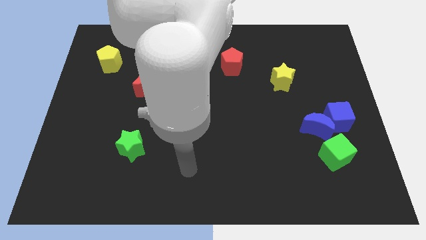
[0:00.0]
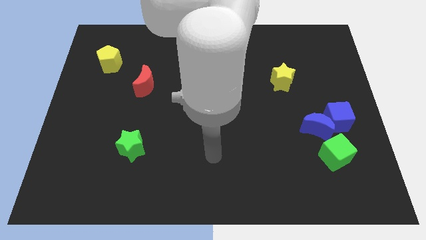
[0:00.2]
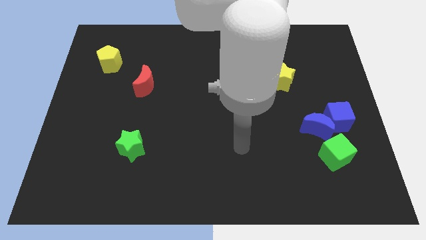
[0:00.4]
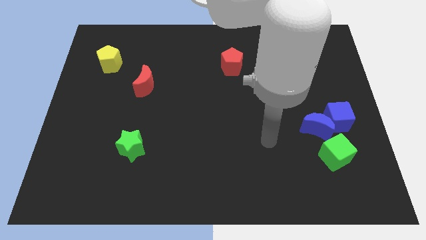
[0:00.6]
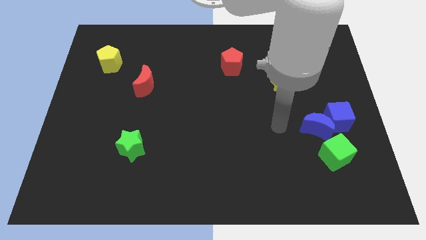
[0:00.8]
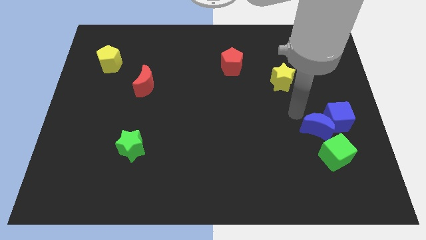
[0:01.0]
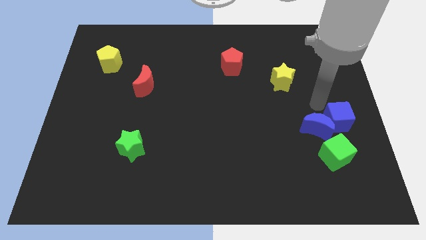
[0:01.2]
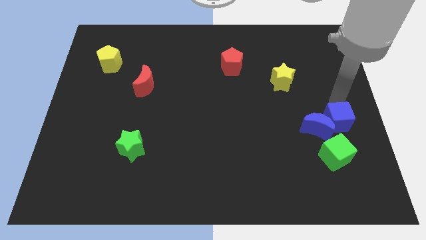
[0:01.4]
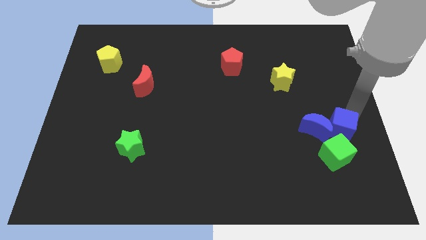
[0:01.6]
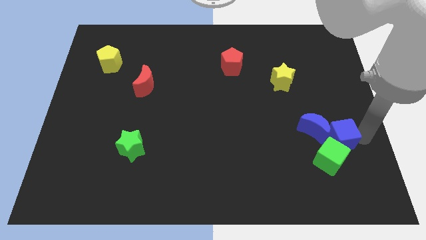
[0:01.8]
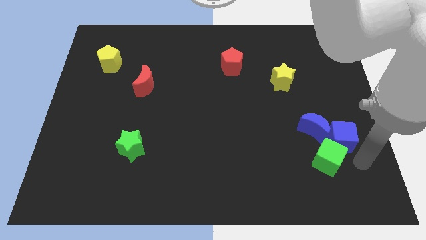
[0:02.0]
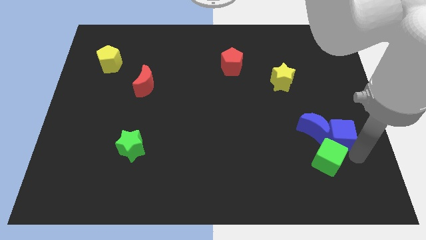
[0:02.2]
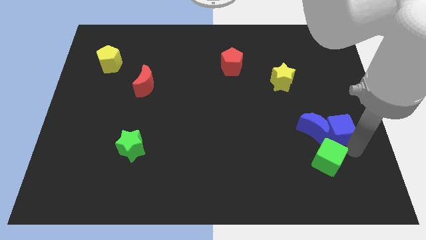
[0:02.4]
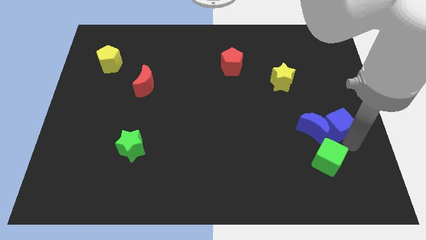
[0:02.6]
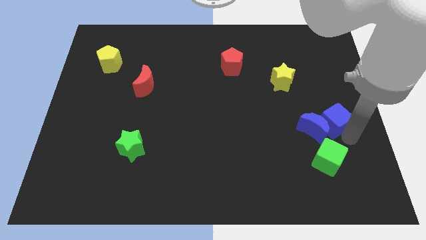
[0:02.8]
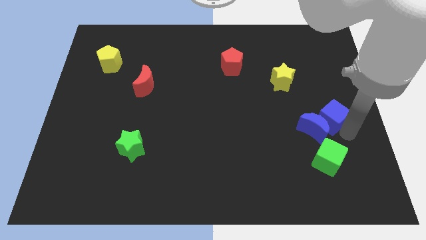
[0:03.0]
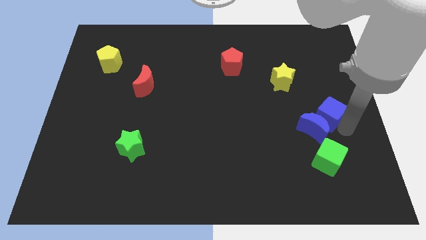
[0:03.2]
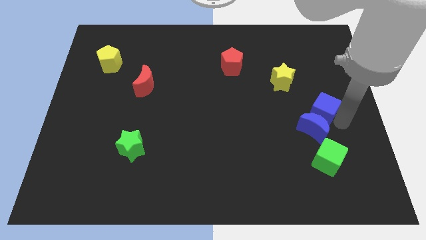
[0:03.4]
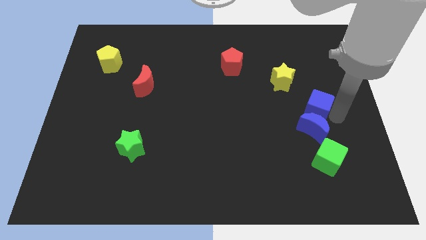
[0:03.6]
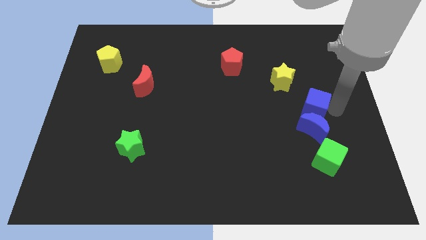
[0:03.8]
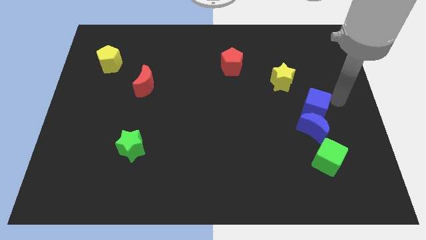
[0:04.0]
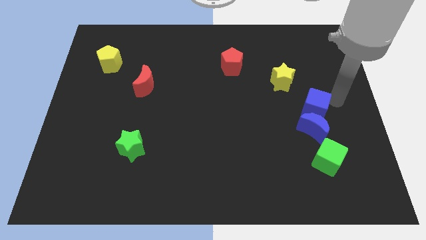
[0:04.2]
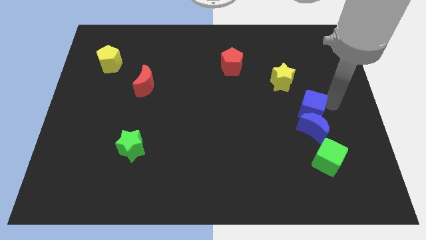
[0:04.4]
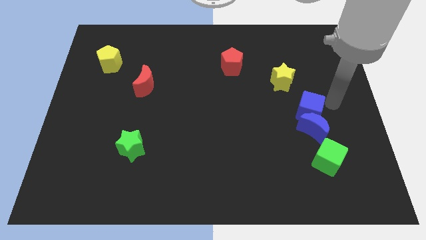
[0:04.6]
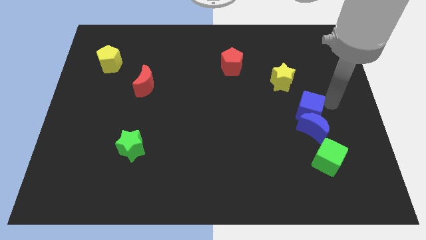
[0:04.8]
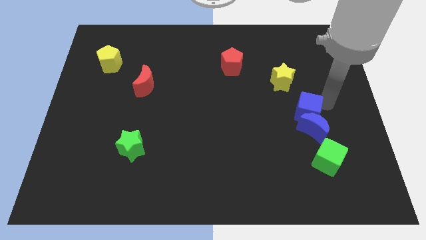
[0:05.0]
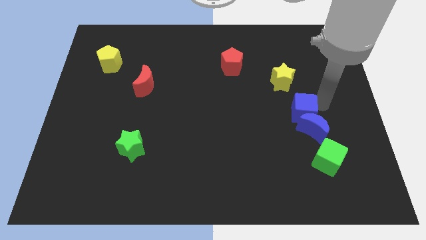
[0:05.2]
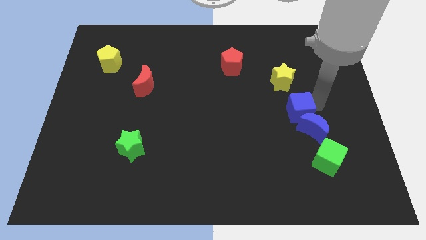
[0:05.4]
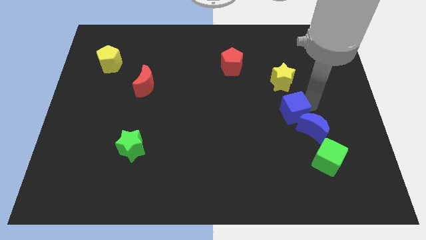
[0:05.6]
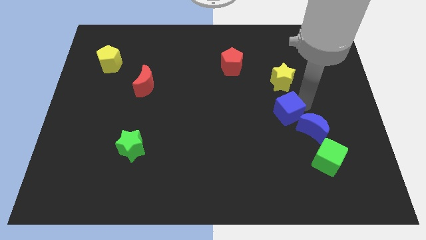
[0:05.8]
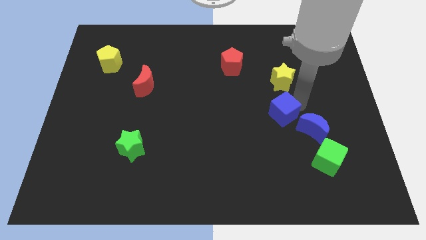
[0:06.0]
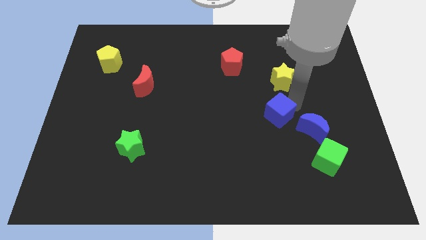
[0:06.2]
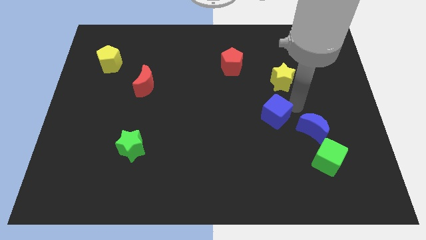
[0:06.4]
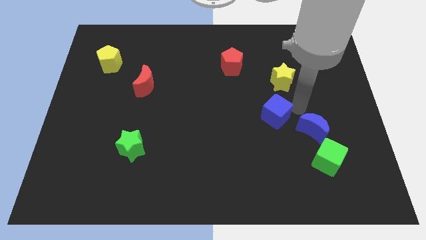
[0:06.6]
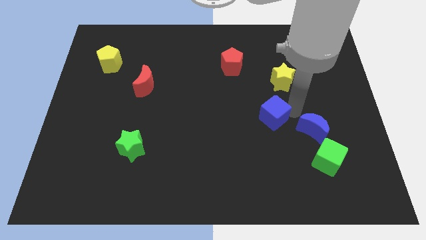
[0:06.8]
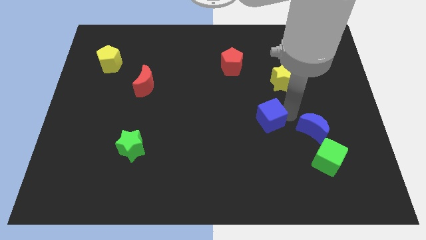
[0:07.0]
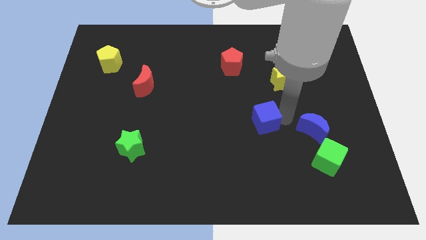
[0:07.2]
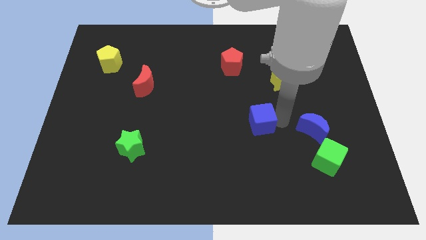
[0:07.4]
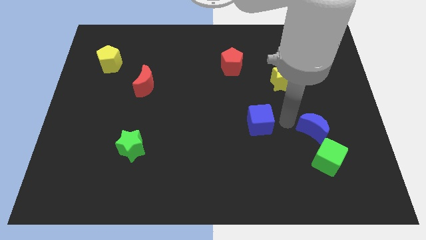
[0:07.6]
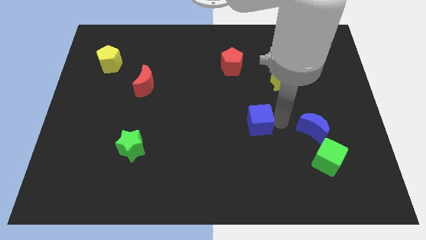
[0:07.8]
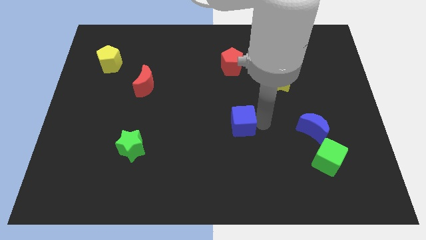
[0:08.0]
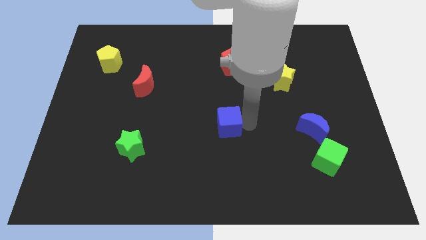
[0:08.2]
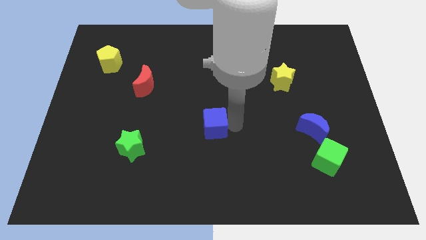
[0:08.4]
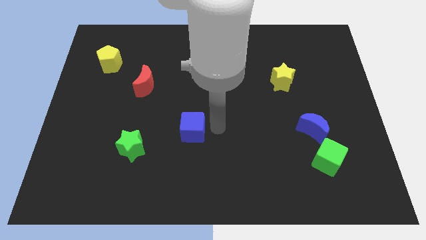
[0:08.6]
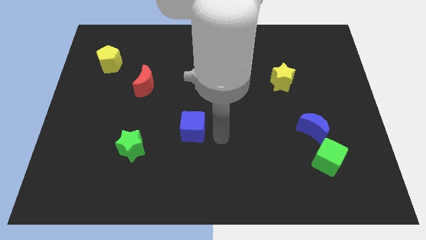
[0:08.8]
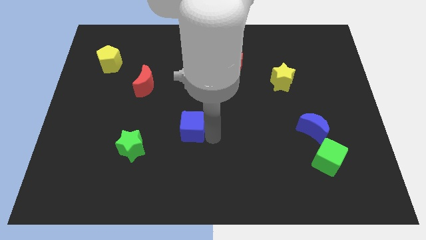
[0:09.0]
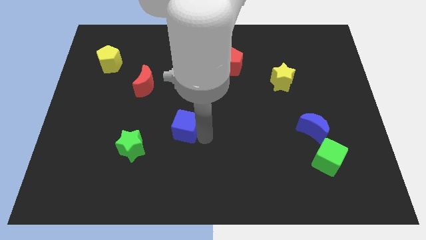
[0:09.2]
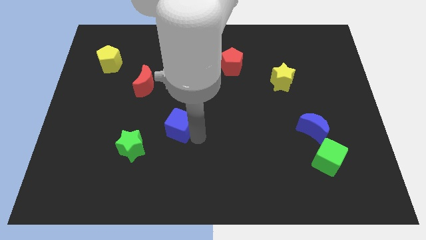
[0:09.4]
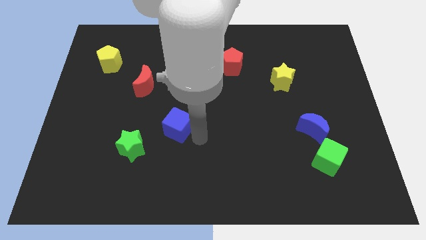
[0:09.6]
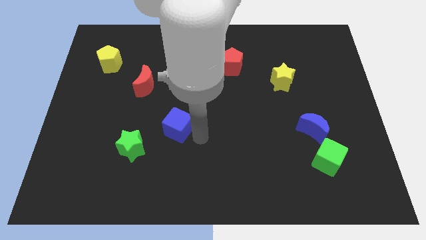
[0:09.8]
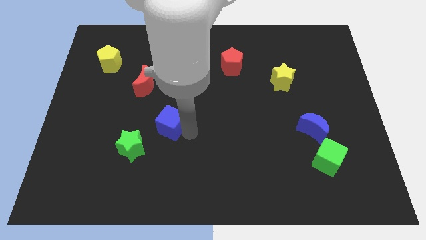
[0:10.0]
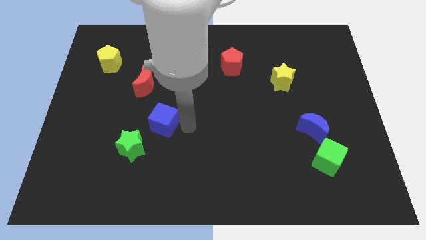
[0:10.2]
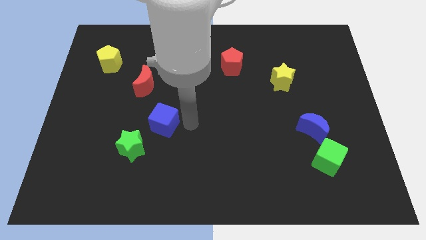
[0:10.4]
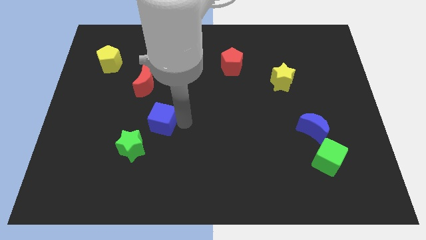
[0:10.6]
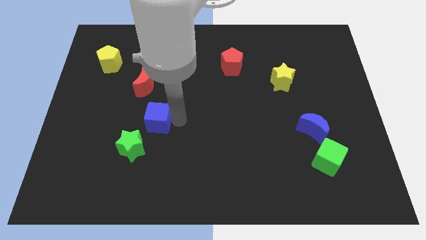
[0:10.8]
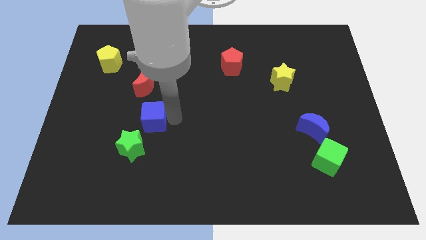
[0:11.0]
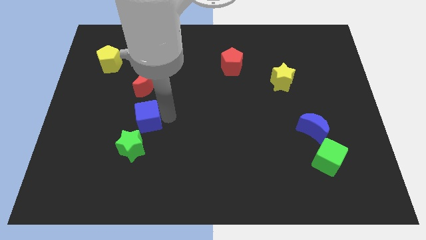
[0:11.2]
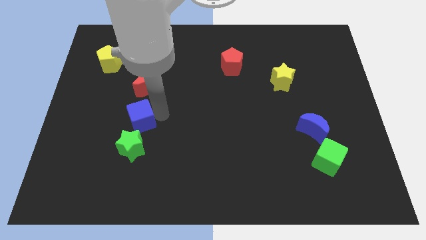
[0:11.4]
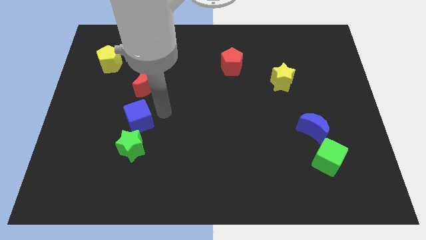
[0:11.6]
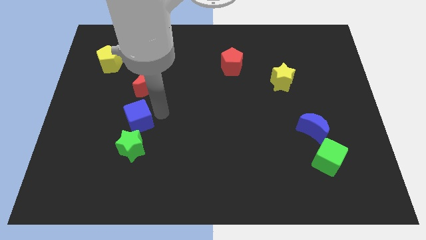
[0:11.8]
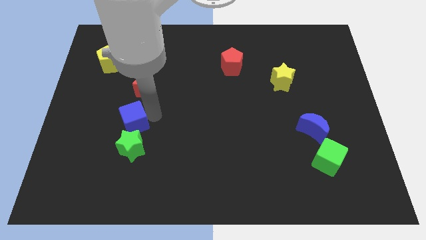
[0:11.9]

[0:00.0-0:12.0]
move the blue cube to the top left side of the green star

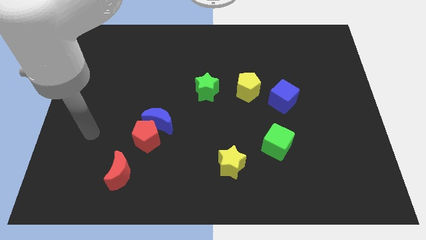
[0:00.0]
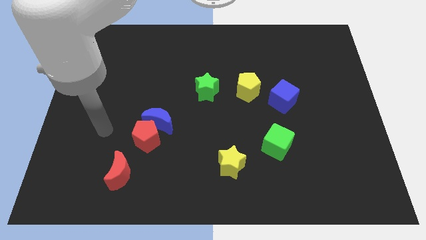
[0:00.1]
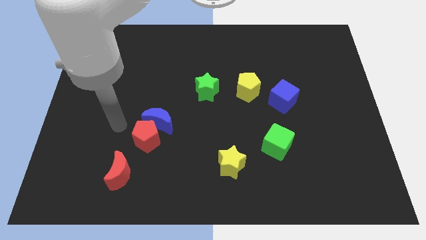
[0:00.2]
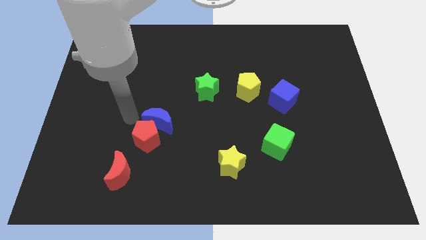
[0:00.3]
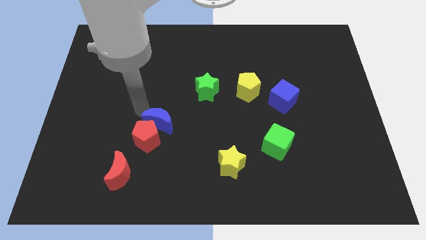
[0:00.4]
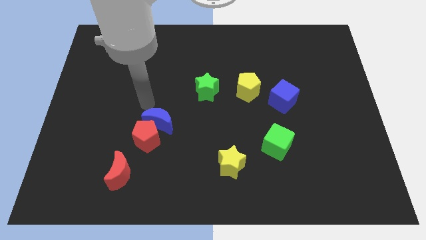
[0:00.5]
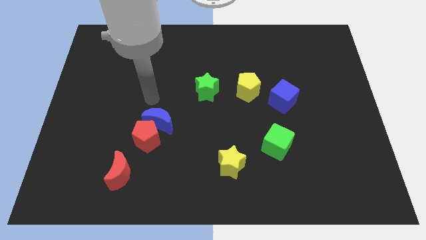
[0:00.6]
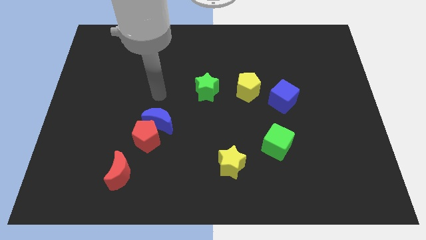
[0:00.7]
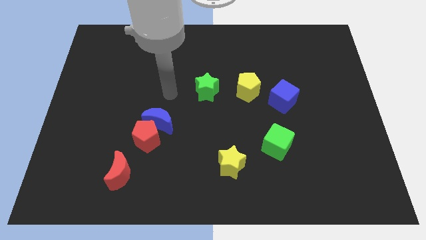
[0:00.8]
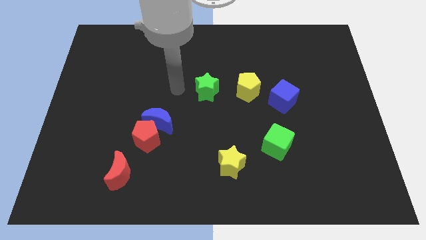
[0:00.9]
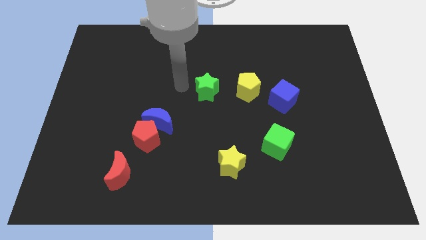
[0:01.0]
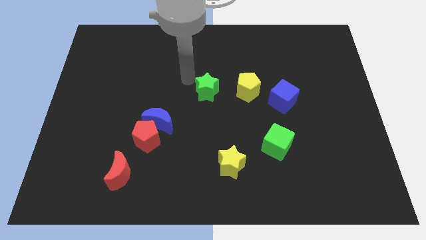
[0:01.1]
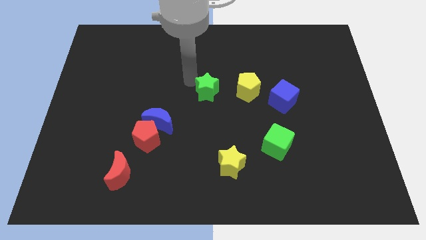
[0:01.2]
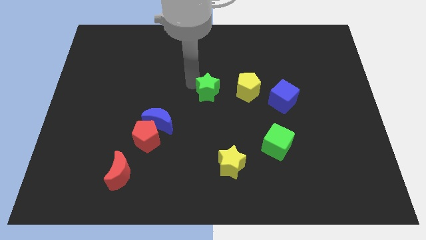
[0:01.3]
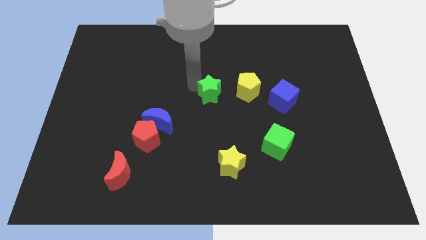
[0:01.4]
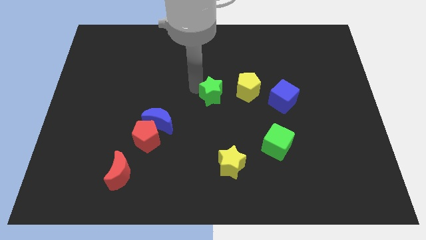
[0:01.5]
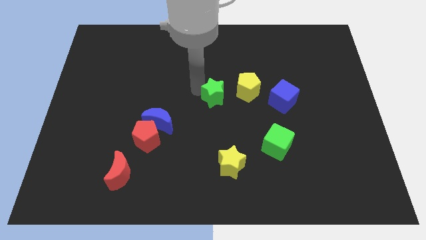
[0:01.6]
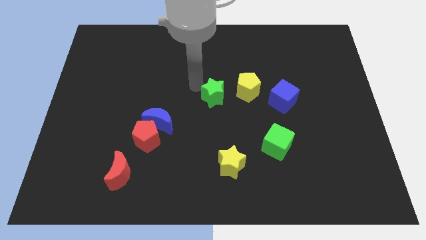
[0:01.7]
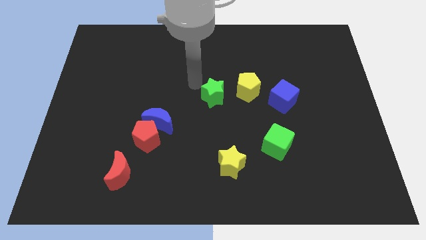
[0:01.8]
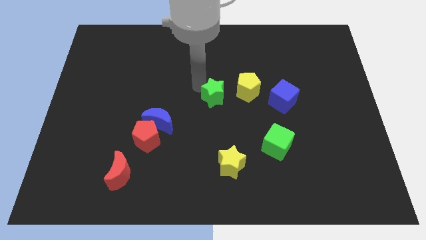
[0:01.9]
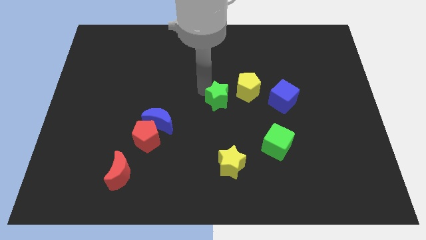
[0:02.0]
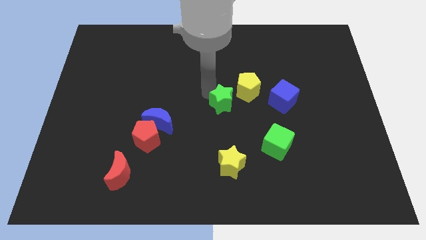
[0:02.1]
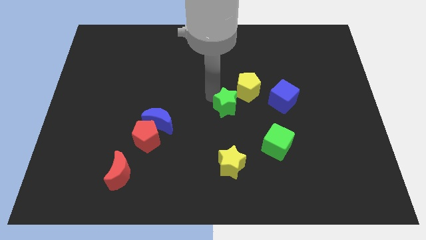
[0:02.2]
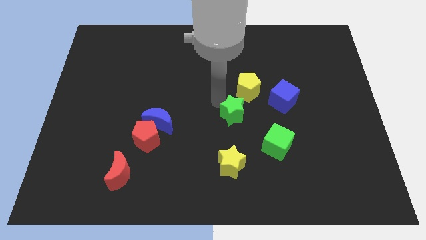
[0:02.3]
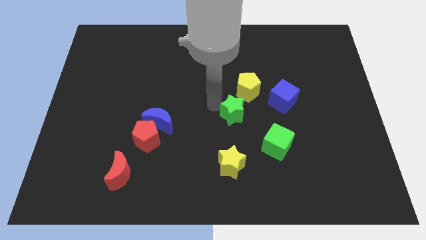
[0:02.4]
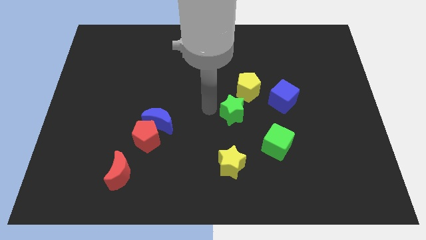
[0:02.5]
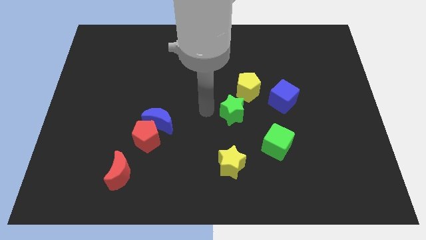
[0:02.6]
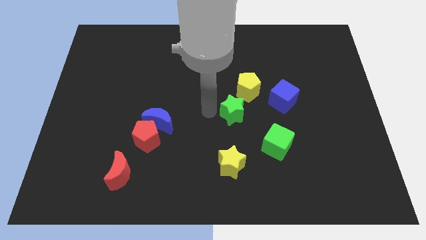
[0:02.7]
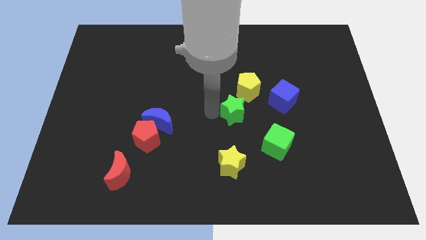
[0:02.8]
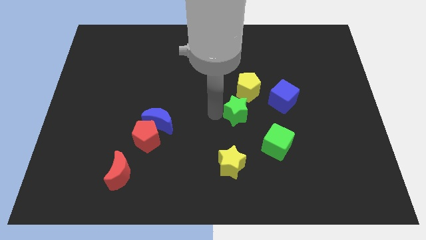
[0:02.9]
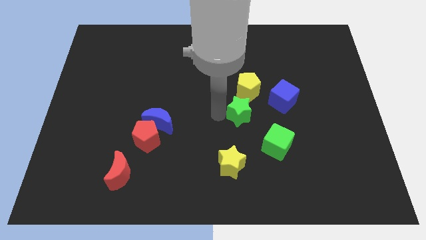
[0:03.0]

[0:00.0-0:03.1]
slide the green star to the bottom left side of the blue cube
